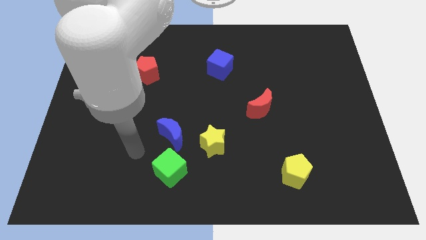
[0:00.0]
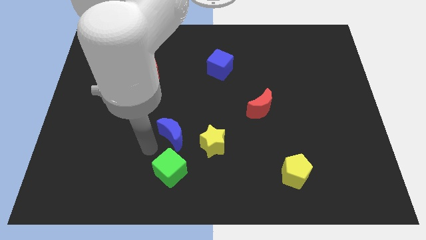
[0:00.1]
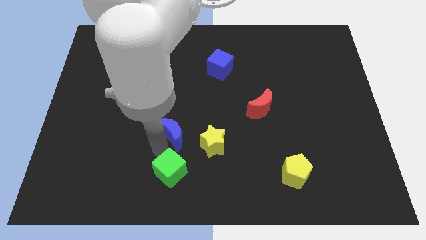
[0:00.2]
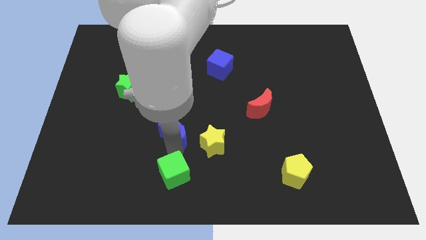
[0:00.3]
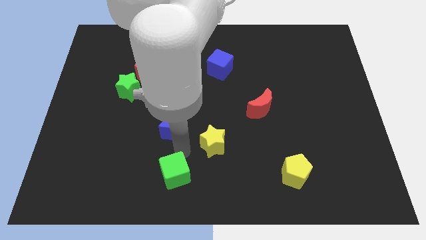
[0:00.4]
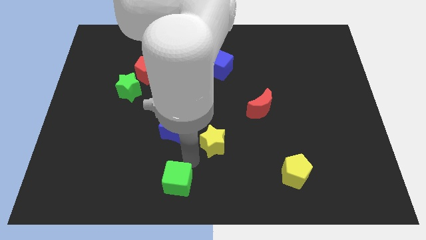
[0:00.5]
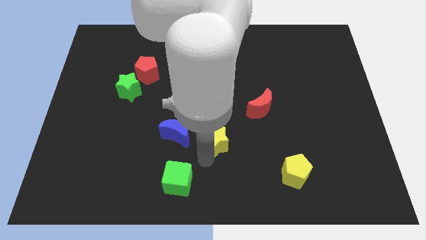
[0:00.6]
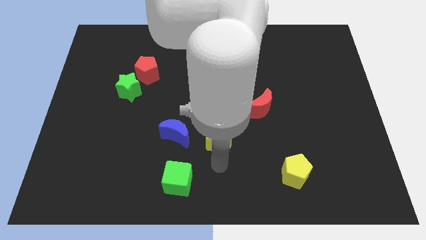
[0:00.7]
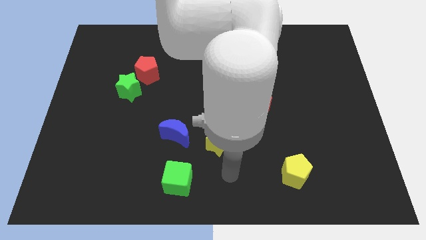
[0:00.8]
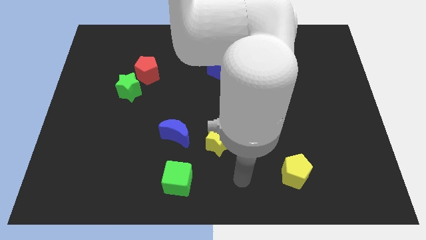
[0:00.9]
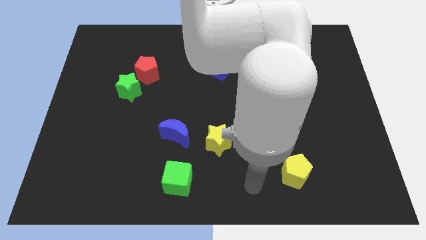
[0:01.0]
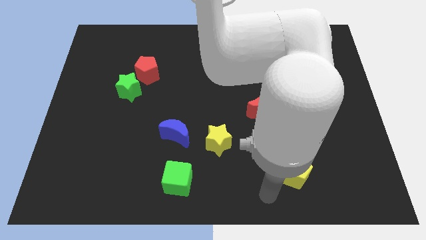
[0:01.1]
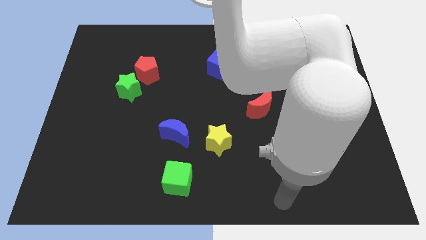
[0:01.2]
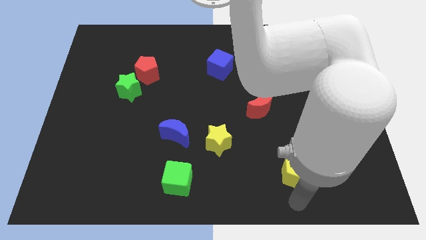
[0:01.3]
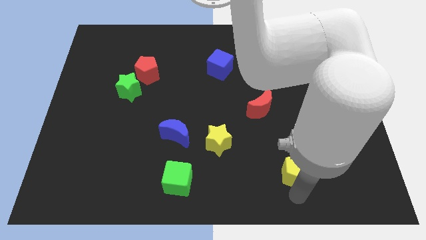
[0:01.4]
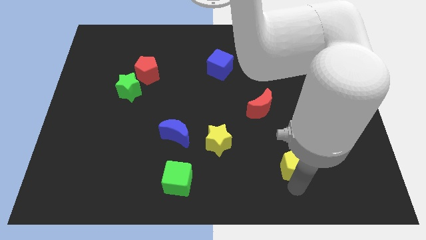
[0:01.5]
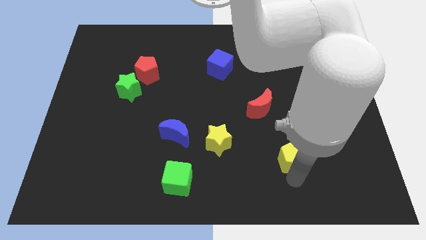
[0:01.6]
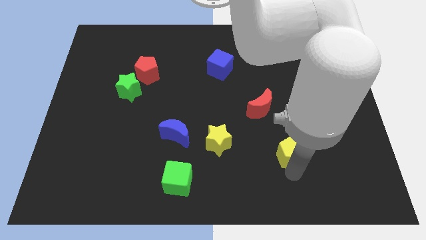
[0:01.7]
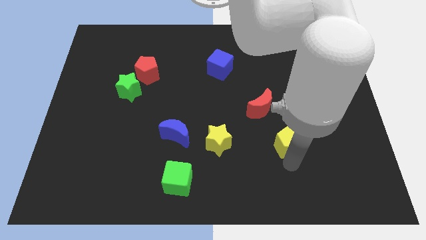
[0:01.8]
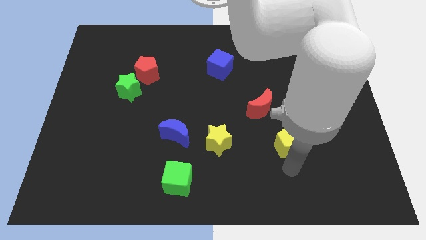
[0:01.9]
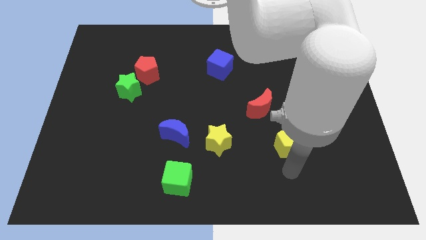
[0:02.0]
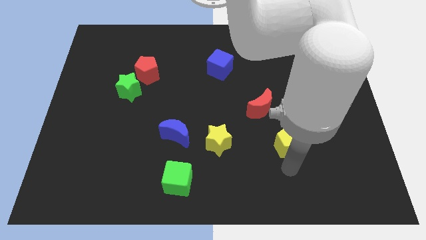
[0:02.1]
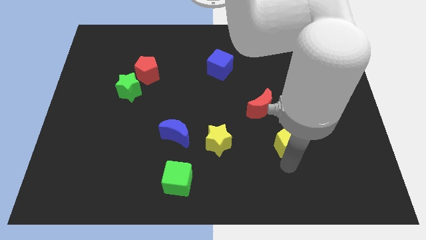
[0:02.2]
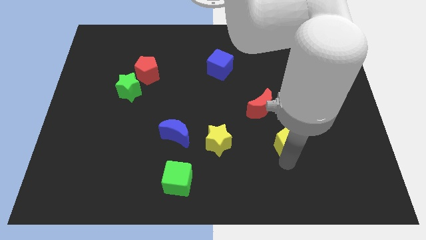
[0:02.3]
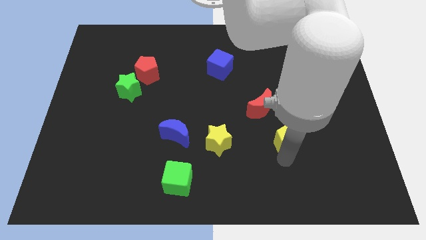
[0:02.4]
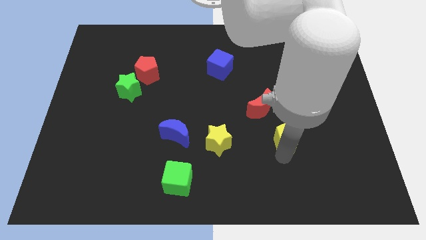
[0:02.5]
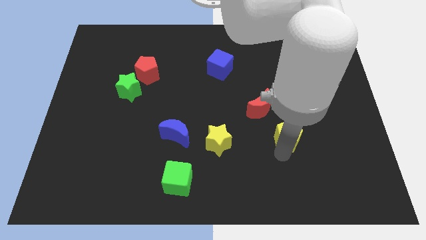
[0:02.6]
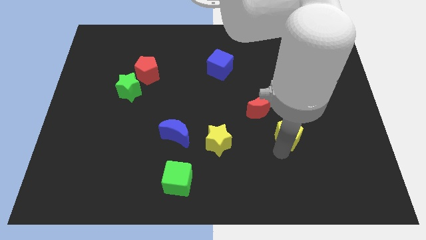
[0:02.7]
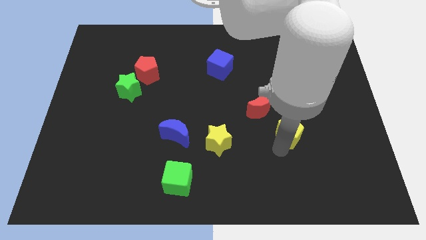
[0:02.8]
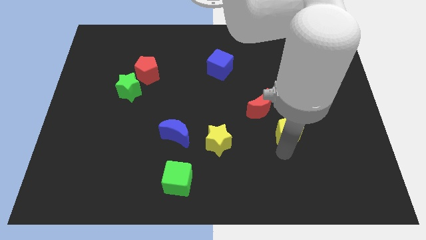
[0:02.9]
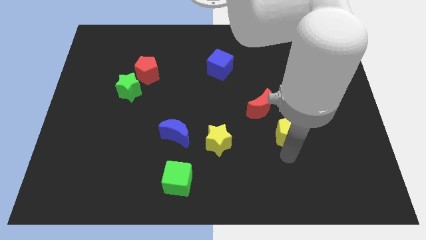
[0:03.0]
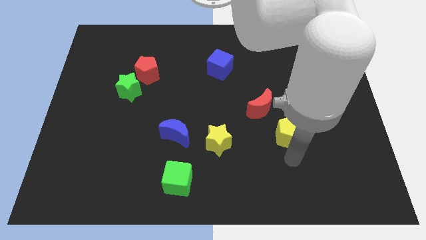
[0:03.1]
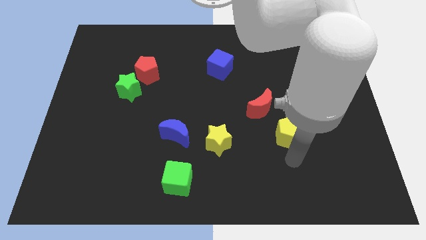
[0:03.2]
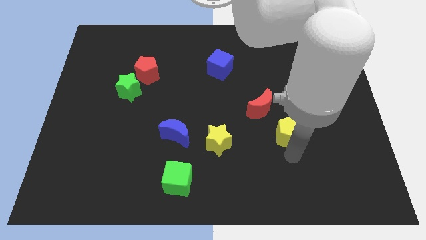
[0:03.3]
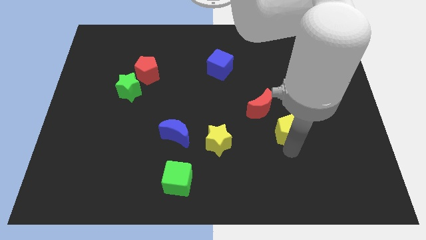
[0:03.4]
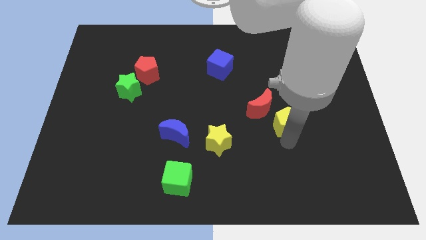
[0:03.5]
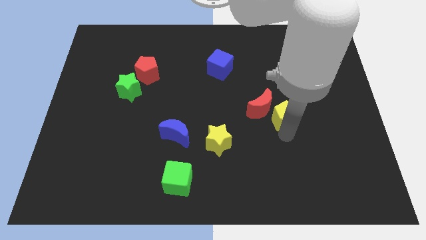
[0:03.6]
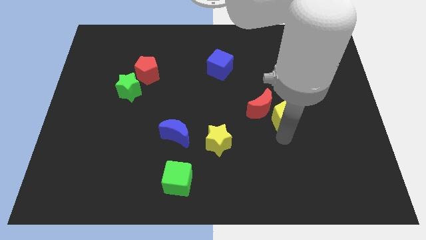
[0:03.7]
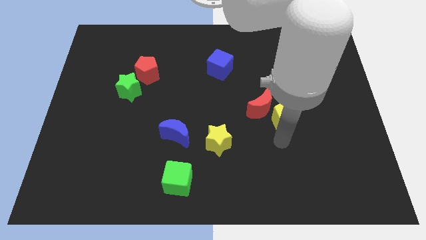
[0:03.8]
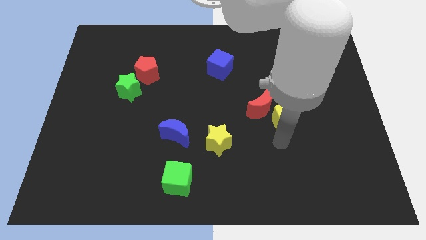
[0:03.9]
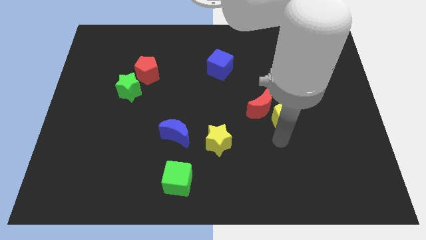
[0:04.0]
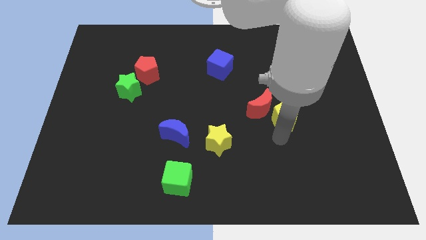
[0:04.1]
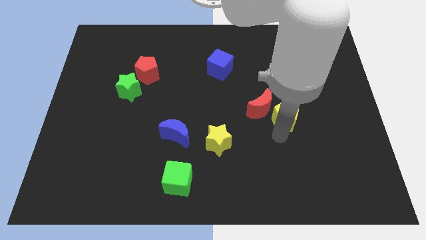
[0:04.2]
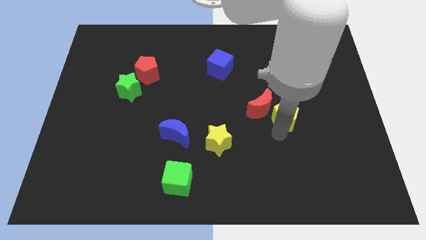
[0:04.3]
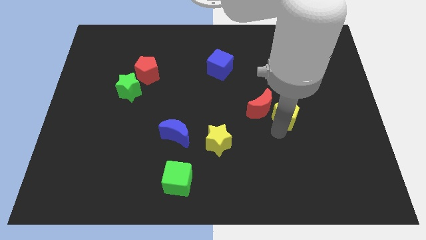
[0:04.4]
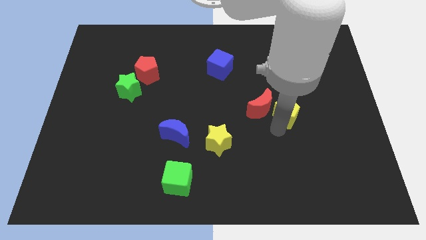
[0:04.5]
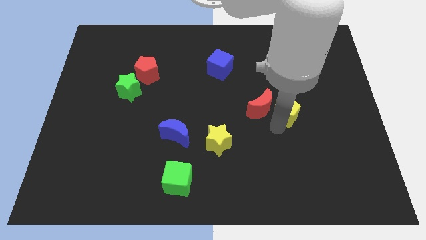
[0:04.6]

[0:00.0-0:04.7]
move the yellow pentagon to the top right of the red moon

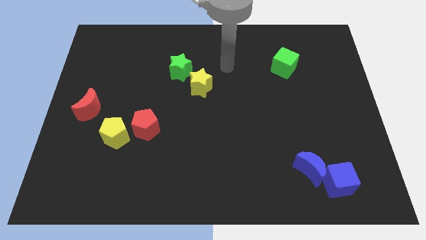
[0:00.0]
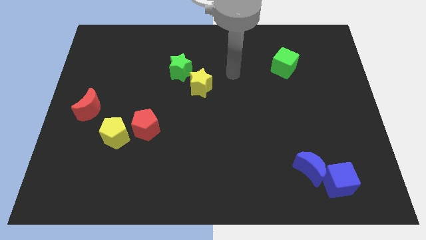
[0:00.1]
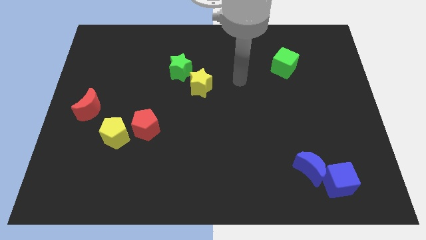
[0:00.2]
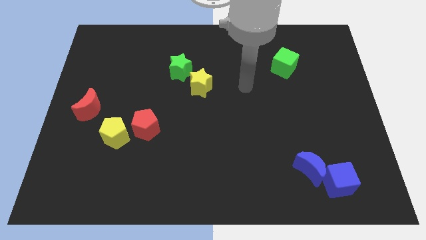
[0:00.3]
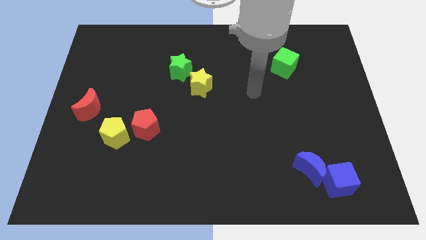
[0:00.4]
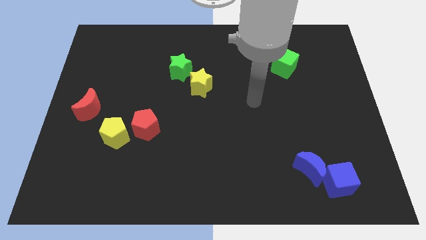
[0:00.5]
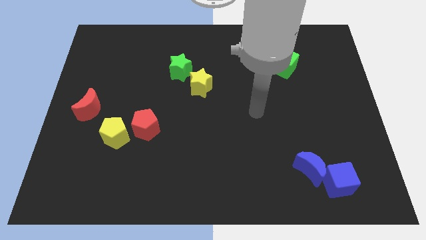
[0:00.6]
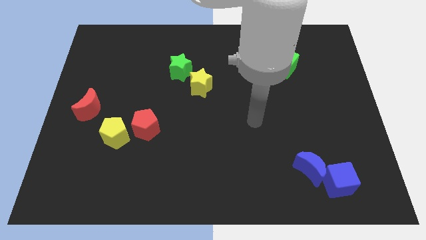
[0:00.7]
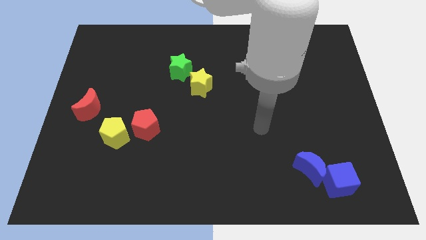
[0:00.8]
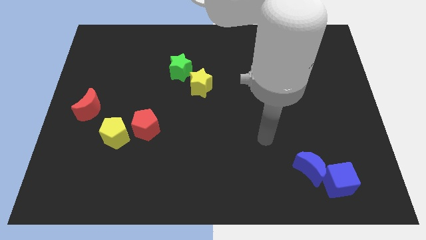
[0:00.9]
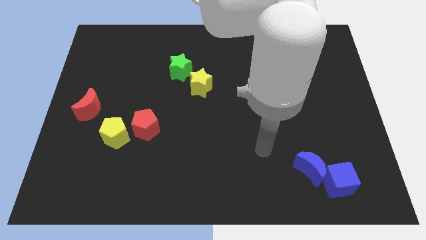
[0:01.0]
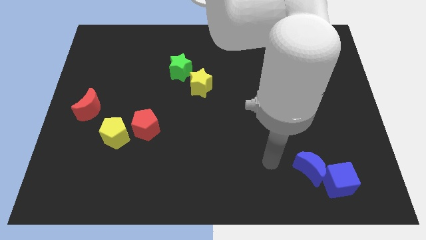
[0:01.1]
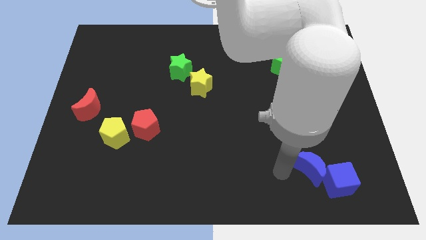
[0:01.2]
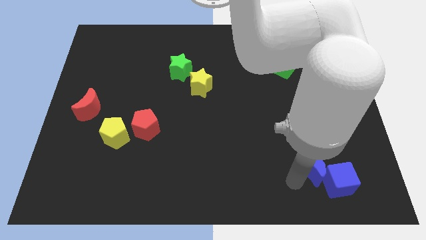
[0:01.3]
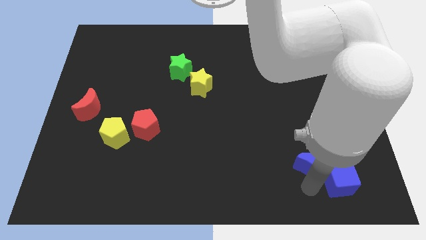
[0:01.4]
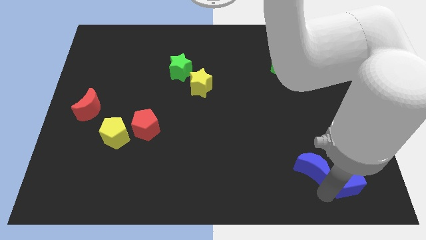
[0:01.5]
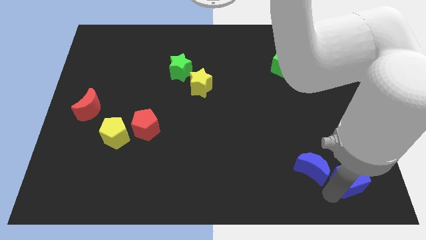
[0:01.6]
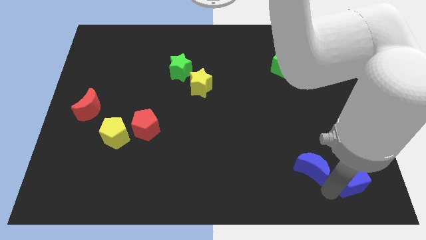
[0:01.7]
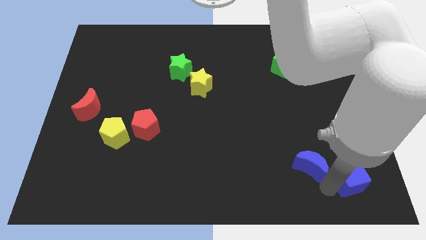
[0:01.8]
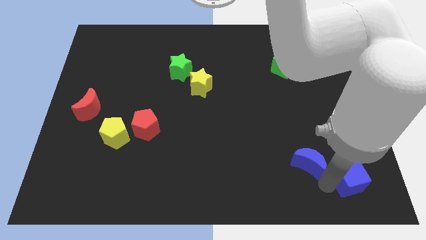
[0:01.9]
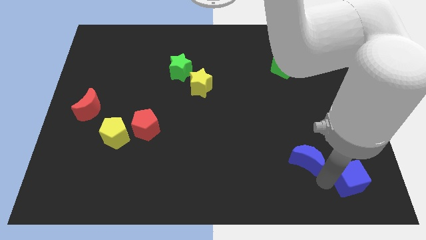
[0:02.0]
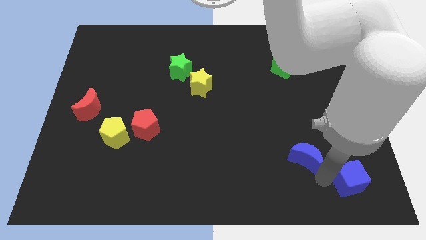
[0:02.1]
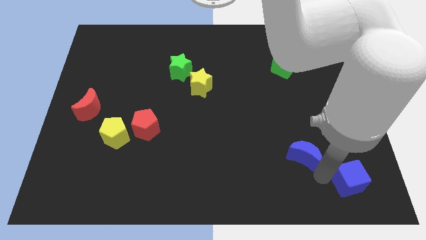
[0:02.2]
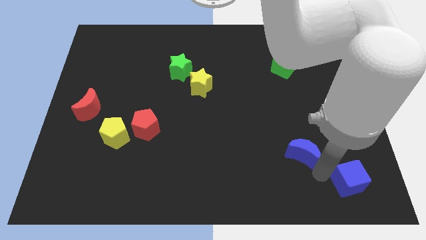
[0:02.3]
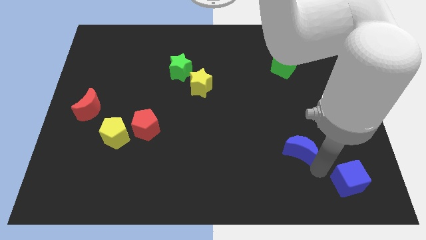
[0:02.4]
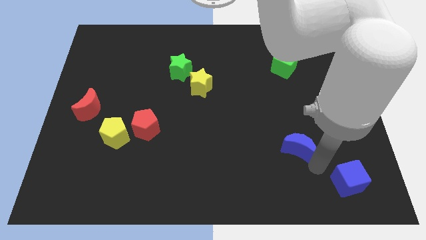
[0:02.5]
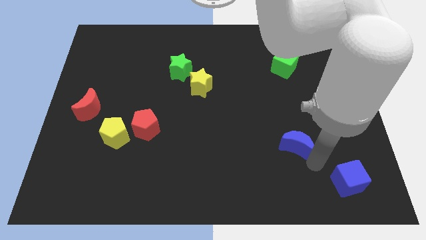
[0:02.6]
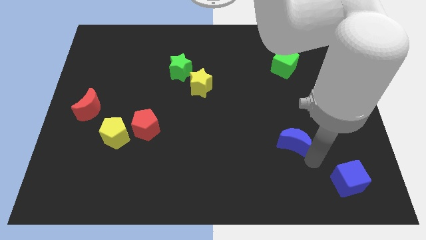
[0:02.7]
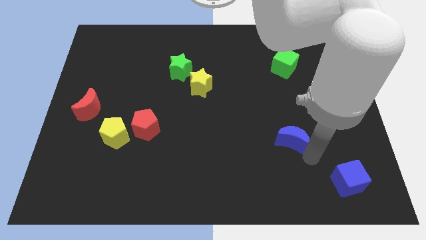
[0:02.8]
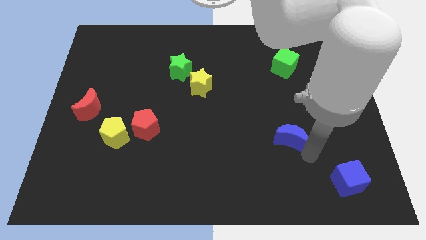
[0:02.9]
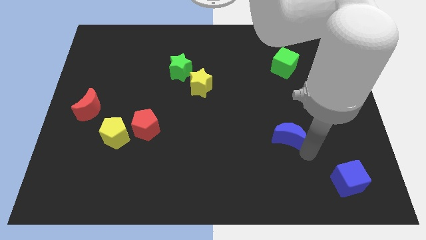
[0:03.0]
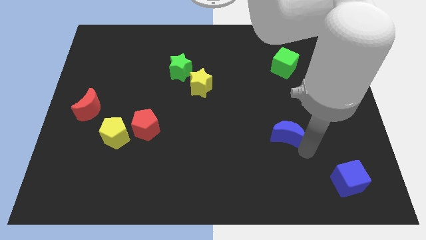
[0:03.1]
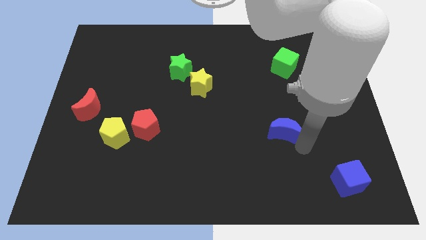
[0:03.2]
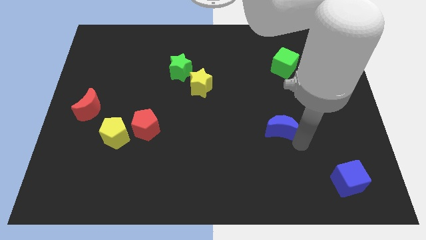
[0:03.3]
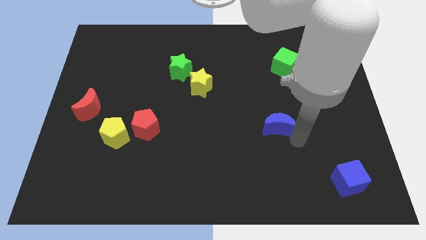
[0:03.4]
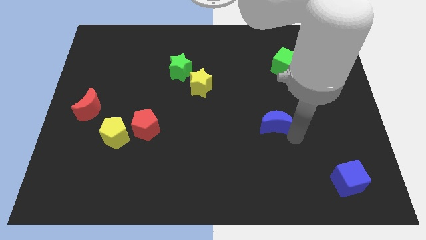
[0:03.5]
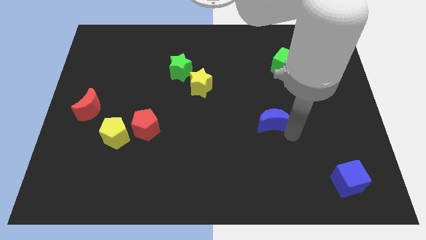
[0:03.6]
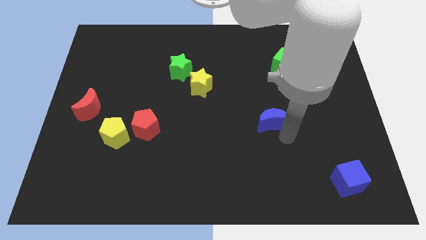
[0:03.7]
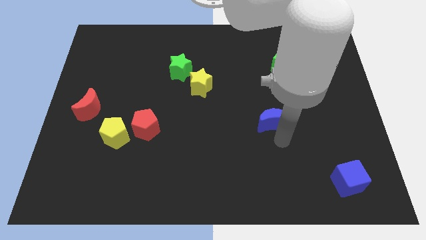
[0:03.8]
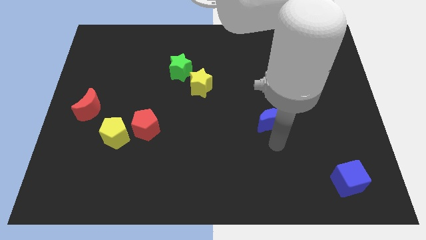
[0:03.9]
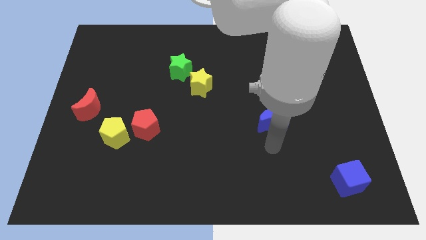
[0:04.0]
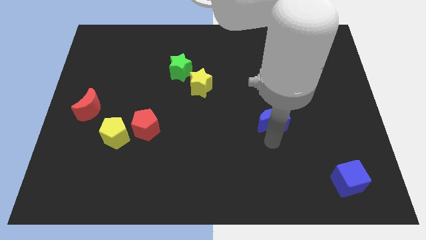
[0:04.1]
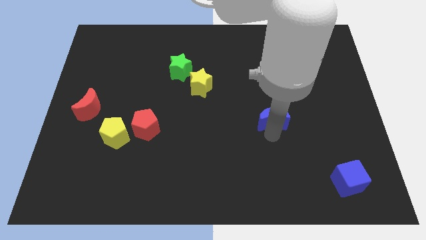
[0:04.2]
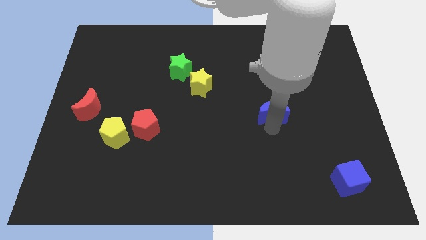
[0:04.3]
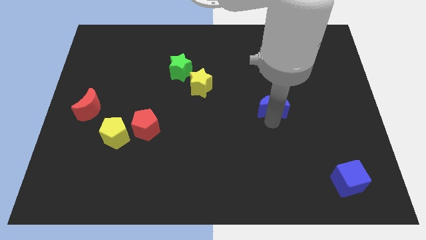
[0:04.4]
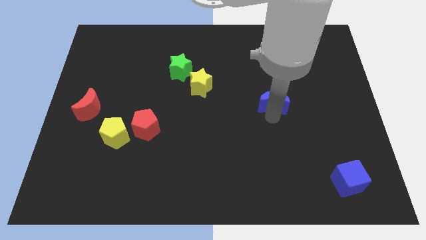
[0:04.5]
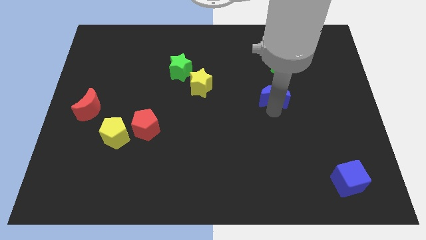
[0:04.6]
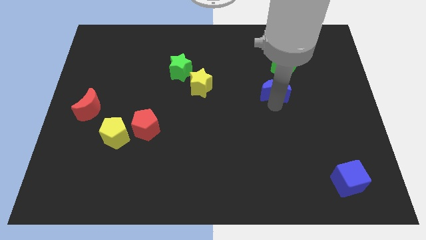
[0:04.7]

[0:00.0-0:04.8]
move the blue moon to the bottom left side of the green cube
